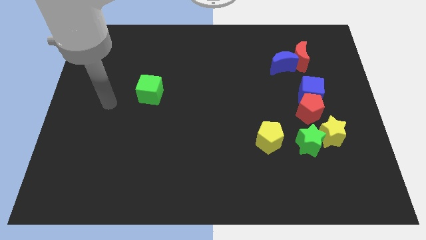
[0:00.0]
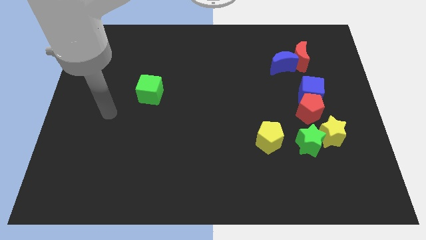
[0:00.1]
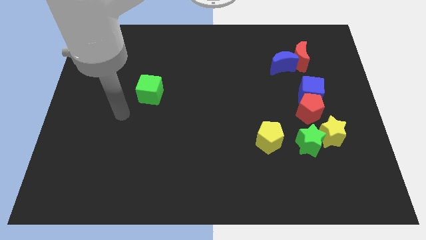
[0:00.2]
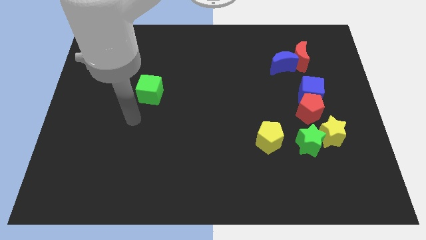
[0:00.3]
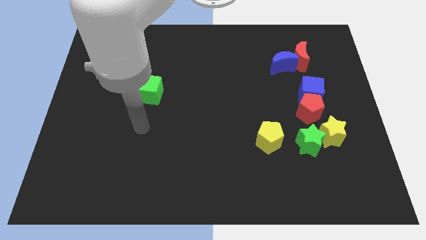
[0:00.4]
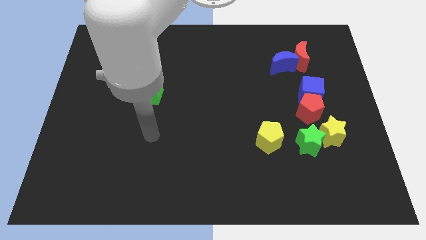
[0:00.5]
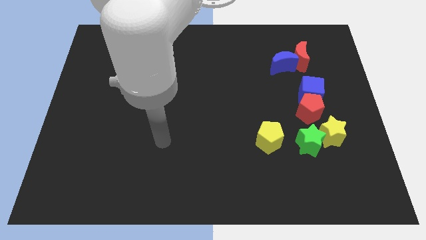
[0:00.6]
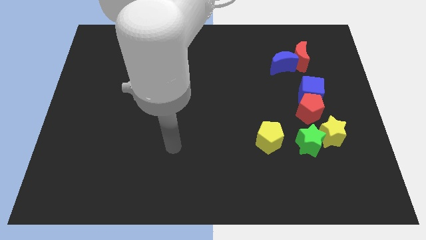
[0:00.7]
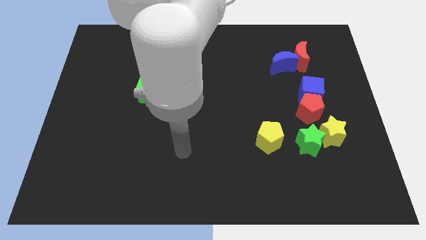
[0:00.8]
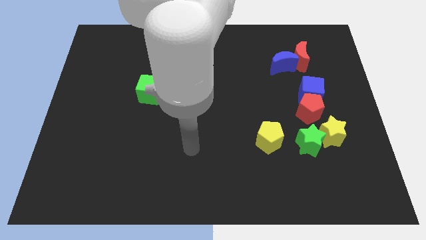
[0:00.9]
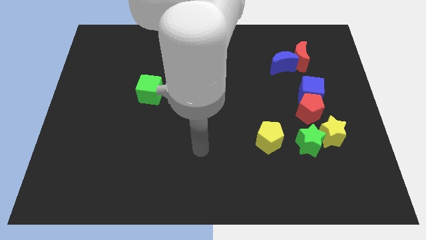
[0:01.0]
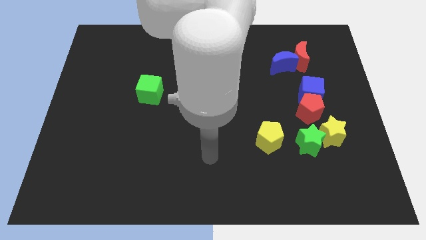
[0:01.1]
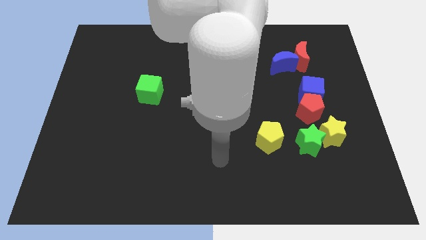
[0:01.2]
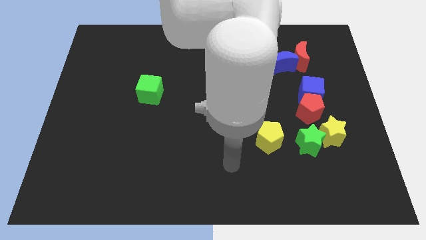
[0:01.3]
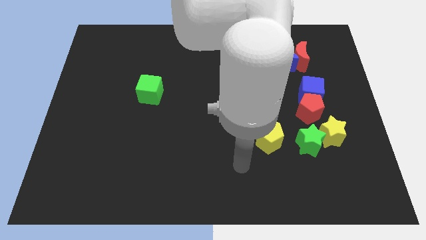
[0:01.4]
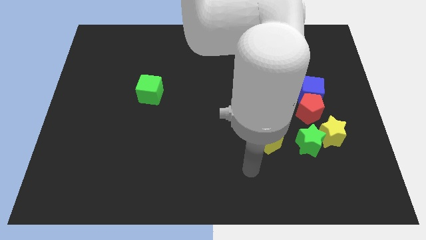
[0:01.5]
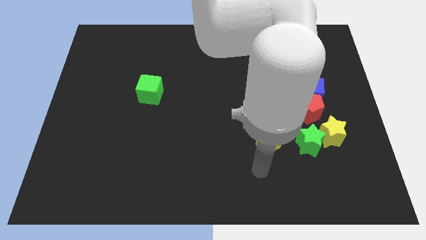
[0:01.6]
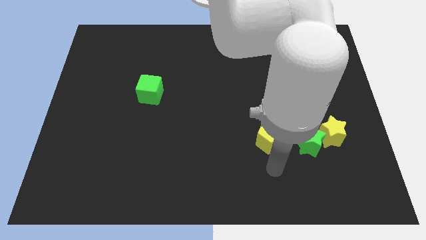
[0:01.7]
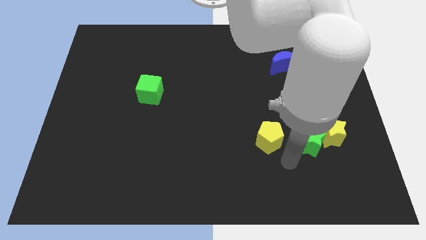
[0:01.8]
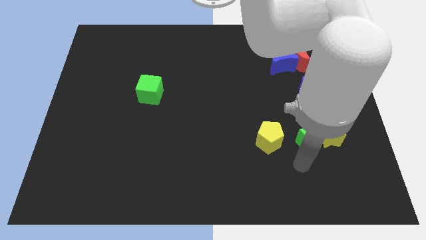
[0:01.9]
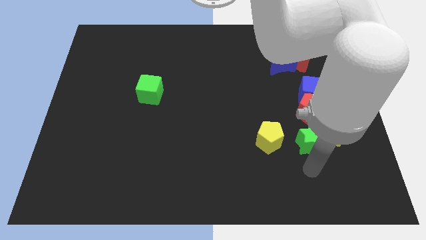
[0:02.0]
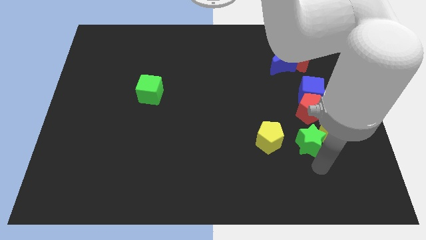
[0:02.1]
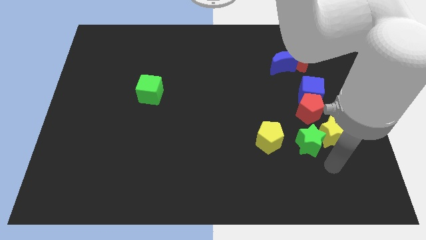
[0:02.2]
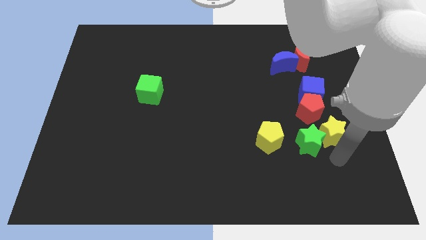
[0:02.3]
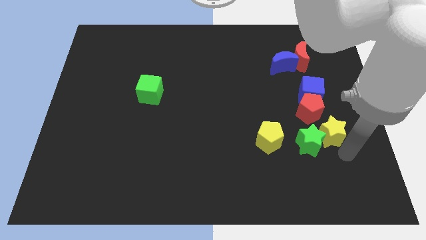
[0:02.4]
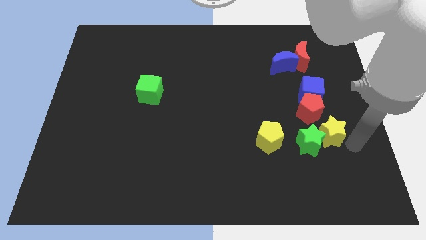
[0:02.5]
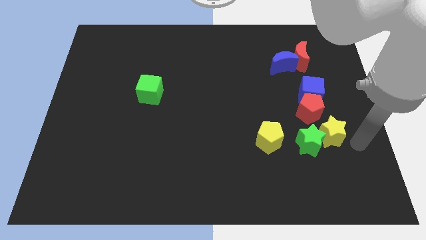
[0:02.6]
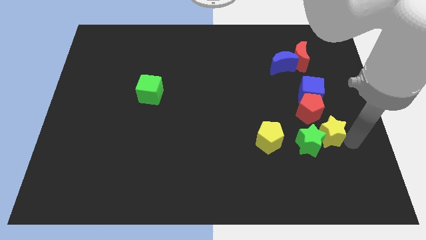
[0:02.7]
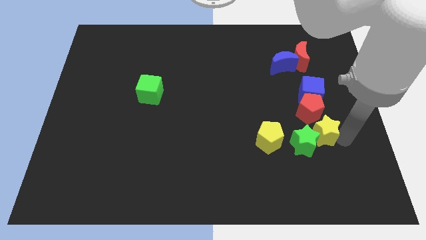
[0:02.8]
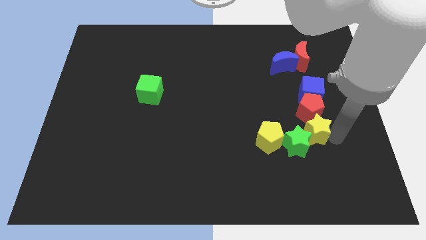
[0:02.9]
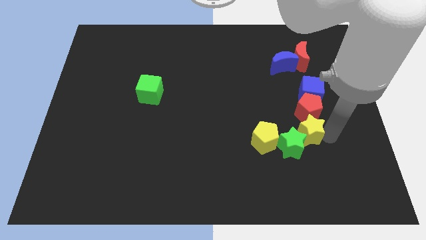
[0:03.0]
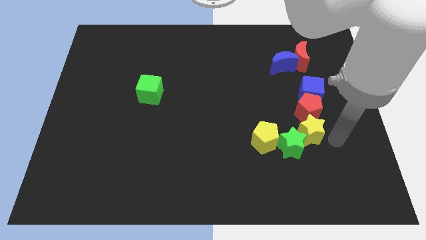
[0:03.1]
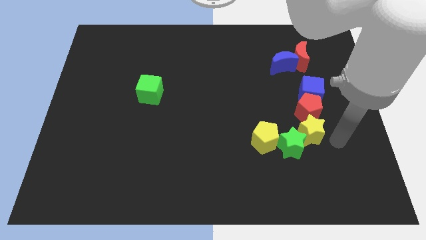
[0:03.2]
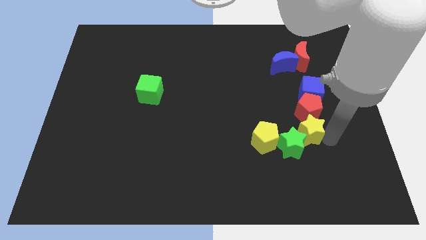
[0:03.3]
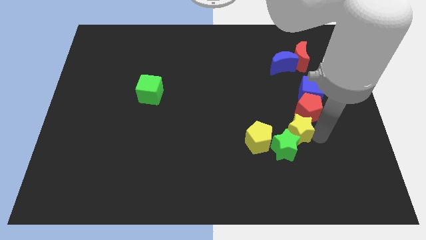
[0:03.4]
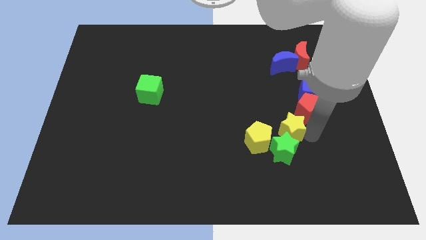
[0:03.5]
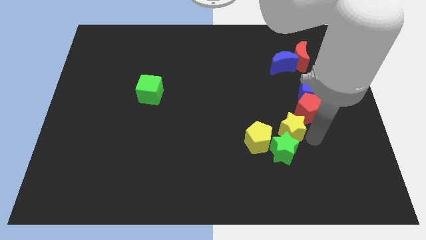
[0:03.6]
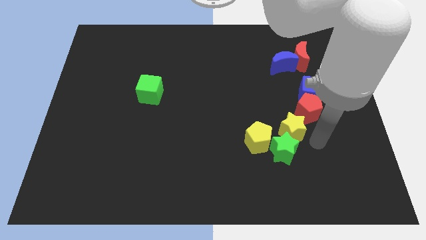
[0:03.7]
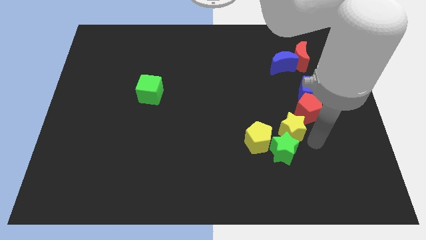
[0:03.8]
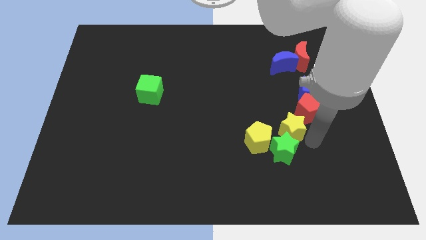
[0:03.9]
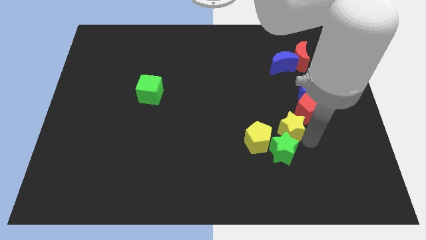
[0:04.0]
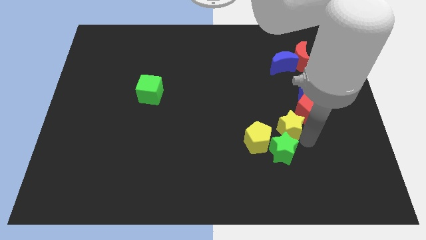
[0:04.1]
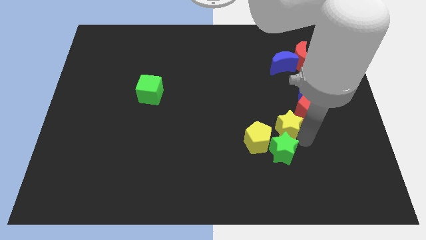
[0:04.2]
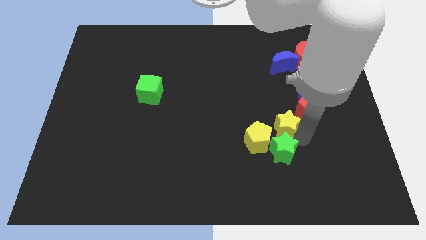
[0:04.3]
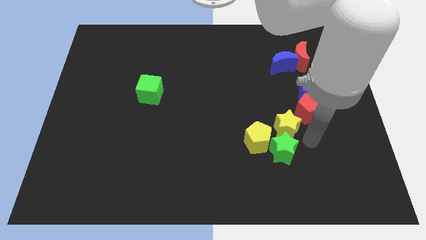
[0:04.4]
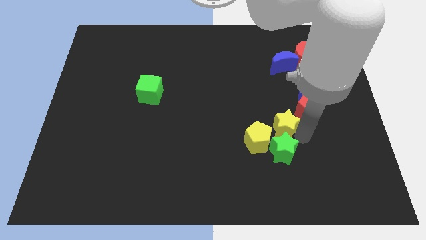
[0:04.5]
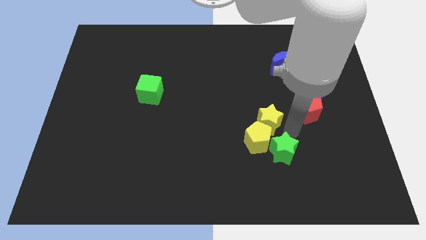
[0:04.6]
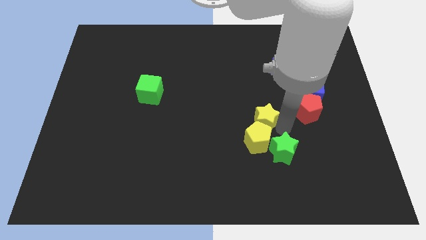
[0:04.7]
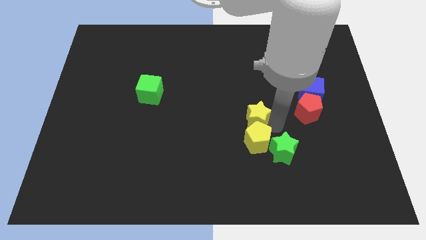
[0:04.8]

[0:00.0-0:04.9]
push the yellow star to the center
